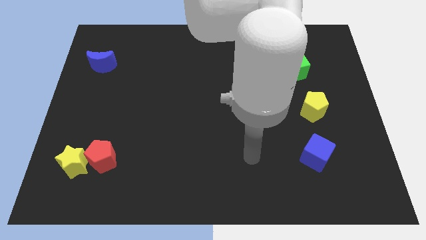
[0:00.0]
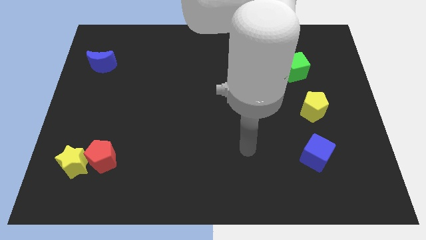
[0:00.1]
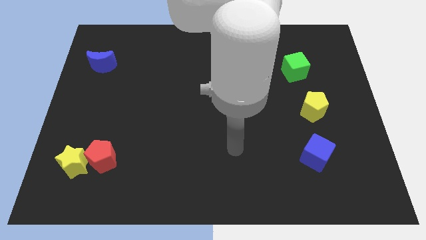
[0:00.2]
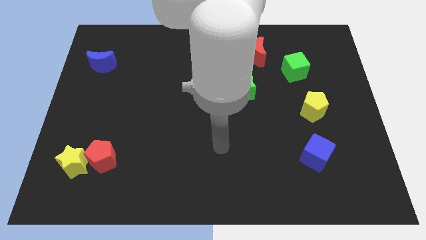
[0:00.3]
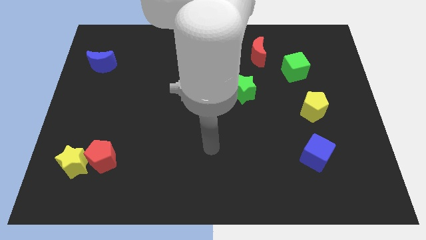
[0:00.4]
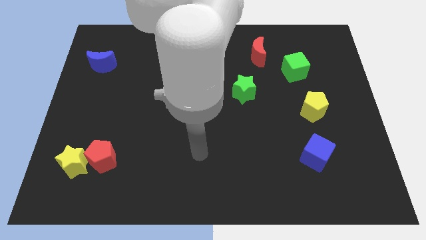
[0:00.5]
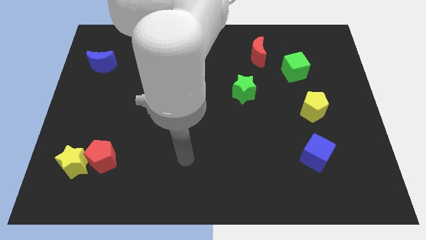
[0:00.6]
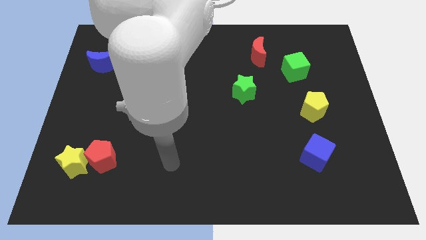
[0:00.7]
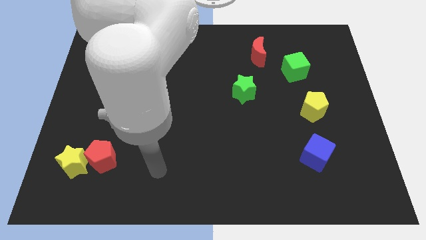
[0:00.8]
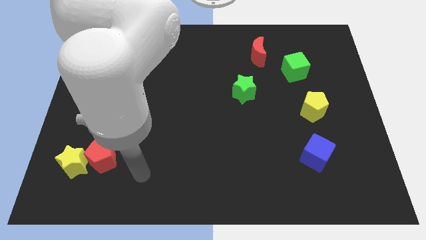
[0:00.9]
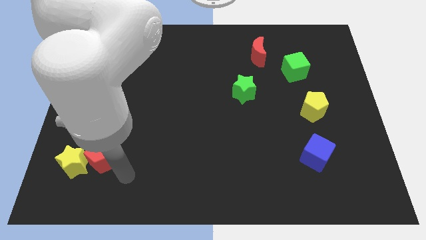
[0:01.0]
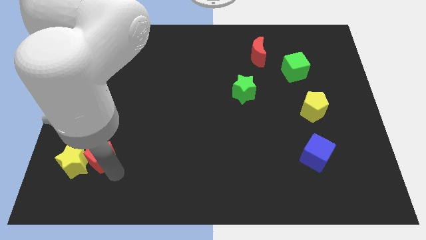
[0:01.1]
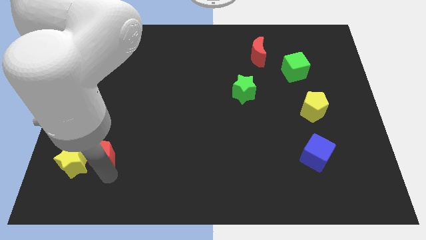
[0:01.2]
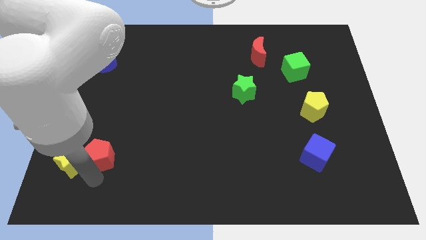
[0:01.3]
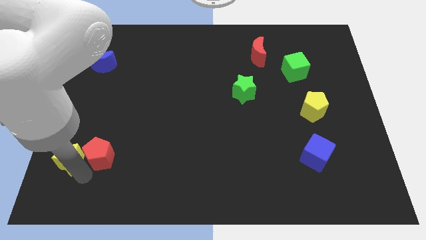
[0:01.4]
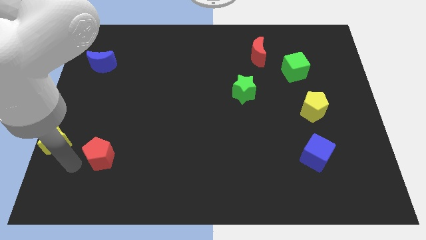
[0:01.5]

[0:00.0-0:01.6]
separate the red pentagon from the yellow star

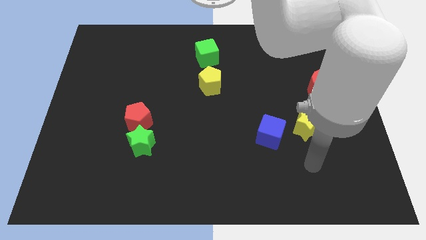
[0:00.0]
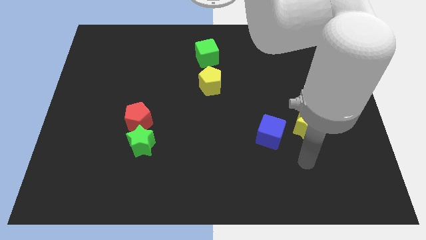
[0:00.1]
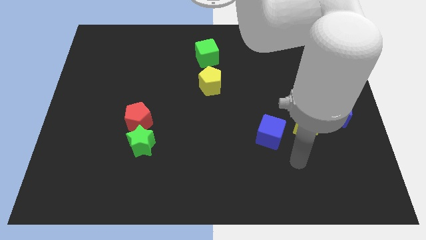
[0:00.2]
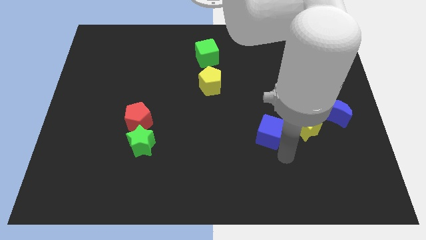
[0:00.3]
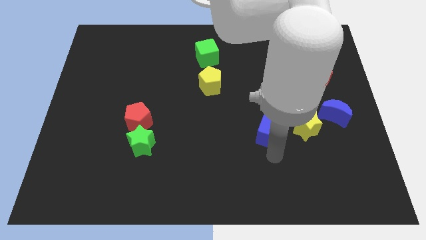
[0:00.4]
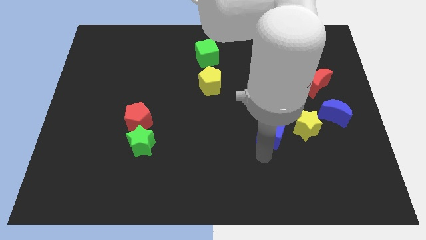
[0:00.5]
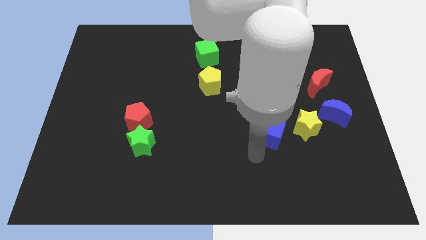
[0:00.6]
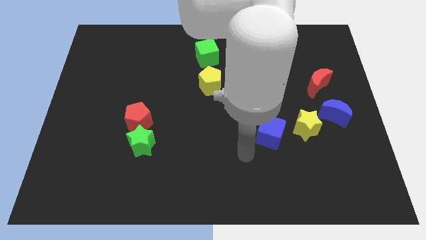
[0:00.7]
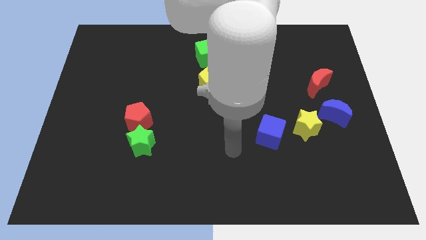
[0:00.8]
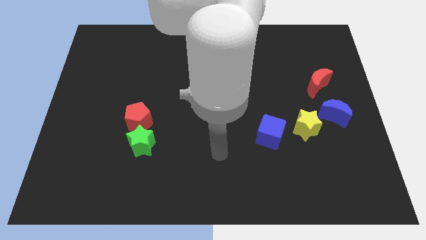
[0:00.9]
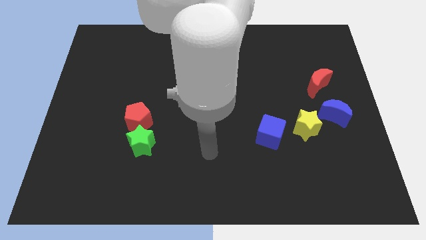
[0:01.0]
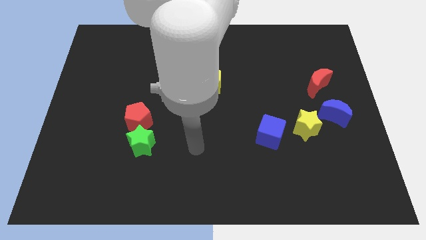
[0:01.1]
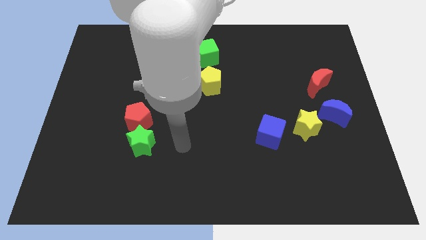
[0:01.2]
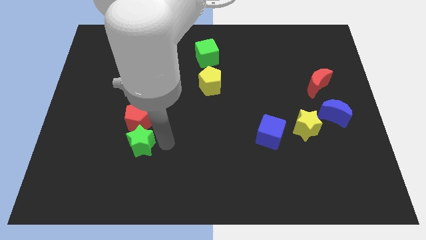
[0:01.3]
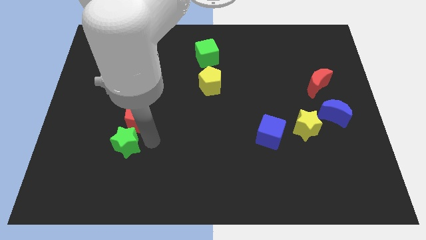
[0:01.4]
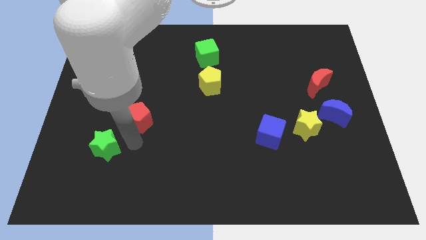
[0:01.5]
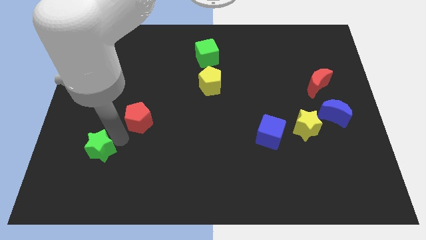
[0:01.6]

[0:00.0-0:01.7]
separate the red pentagon from the green star

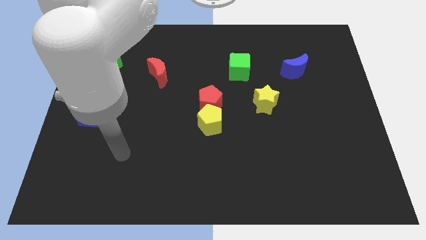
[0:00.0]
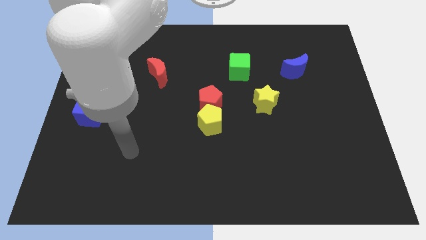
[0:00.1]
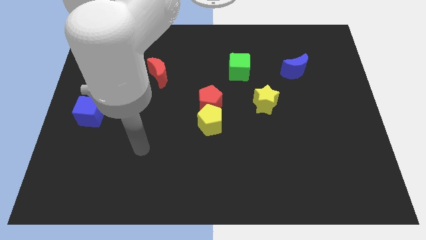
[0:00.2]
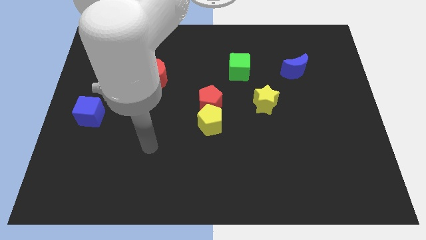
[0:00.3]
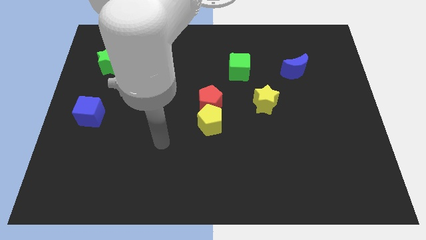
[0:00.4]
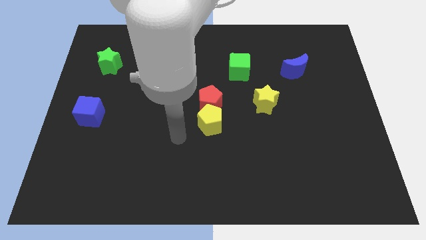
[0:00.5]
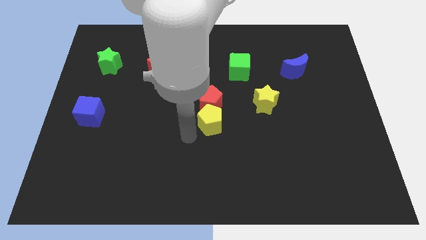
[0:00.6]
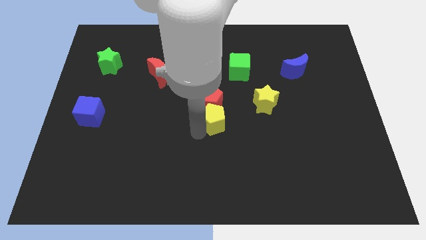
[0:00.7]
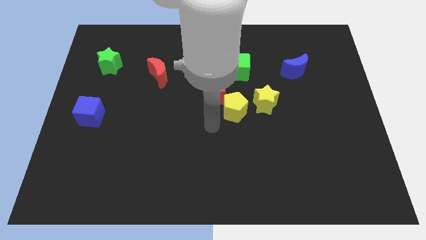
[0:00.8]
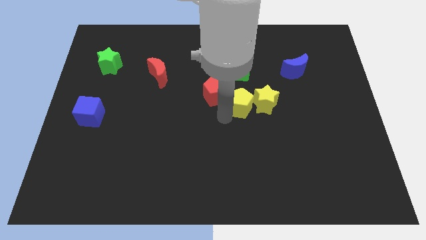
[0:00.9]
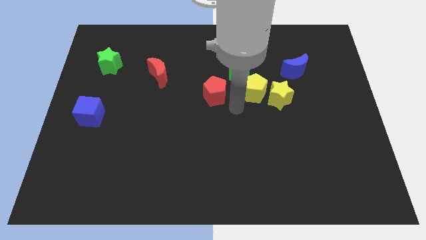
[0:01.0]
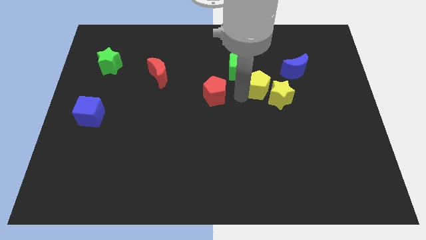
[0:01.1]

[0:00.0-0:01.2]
pull the red pentagon apart from the yellow pentagon

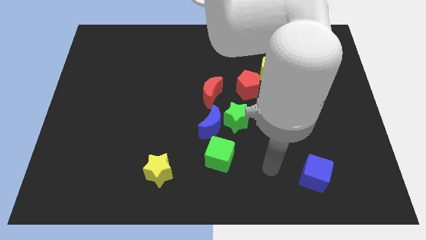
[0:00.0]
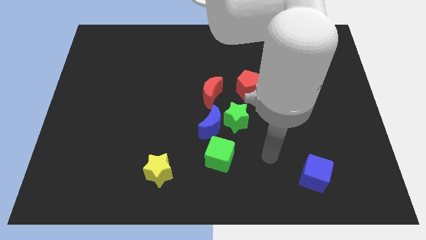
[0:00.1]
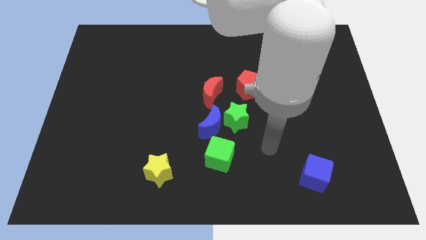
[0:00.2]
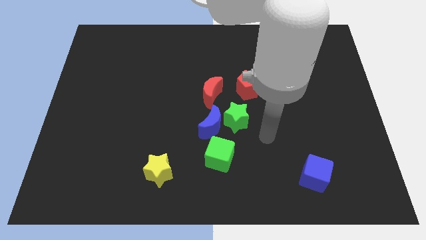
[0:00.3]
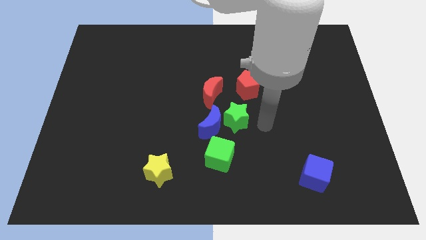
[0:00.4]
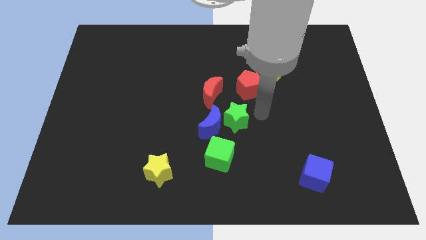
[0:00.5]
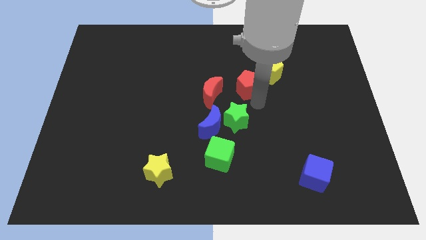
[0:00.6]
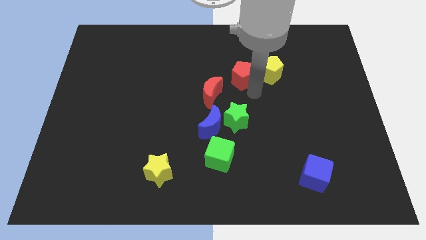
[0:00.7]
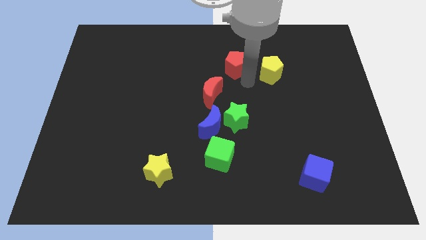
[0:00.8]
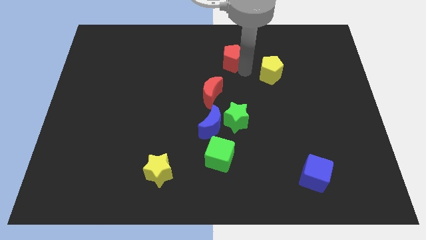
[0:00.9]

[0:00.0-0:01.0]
pull the yellow pentagon apart from the red pentagon

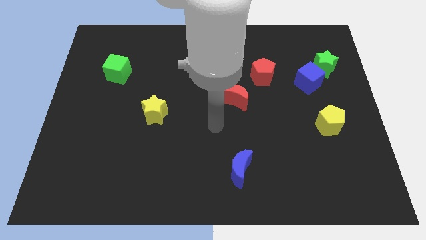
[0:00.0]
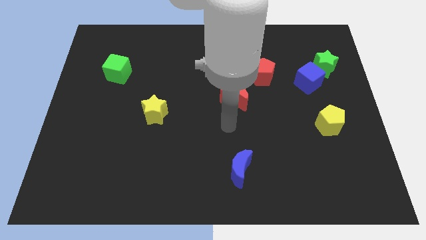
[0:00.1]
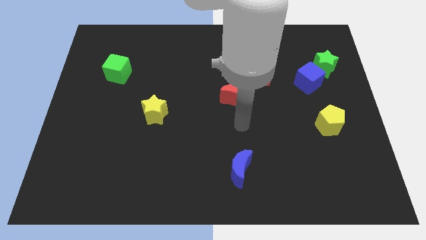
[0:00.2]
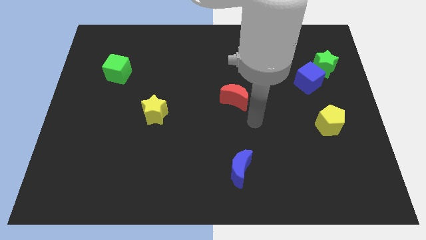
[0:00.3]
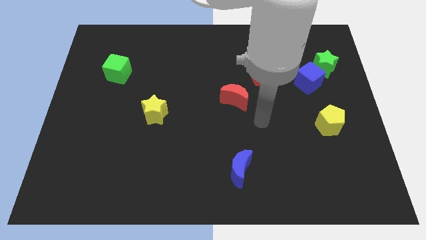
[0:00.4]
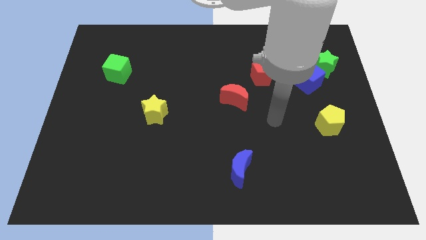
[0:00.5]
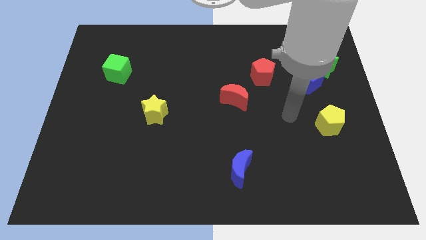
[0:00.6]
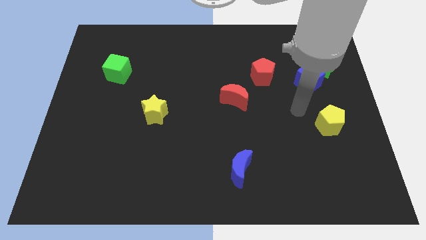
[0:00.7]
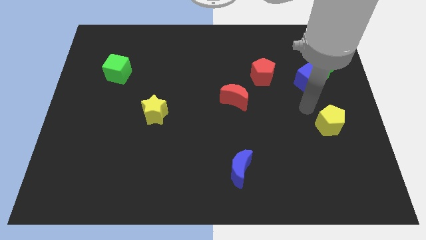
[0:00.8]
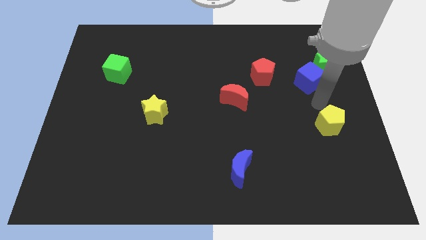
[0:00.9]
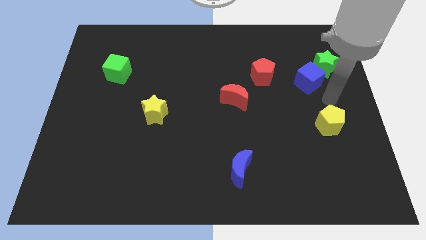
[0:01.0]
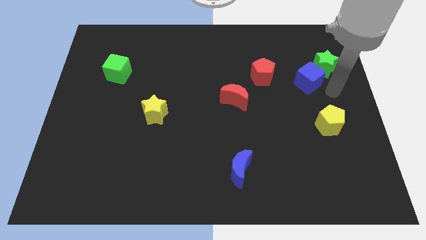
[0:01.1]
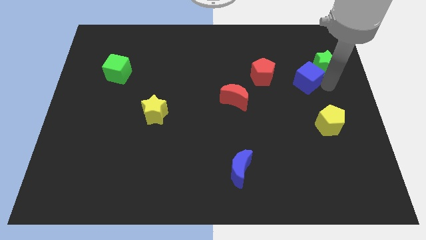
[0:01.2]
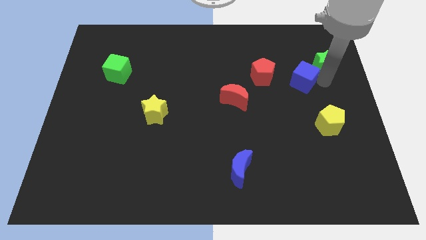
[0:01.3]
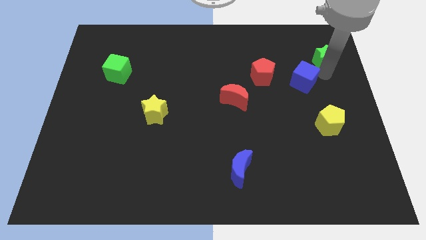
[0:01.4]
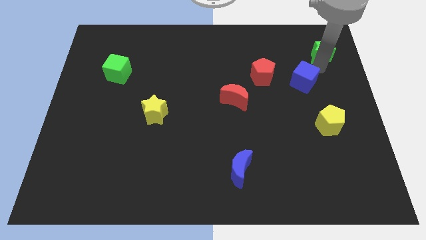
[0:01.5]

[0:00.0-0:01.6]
move the blue cube away from the green star

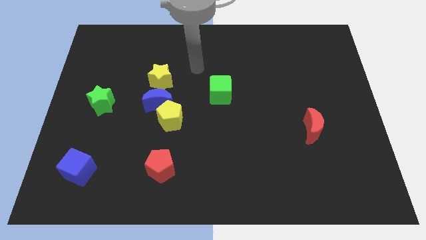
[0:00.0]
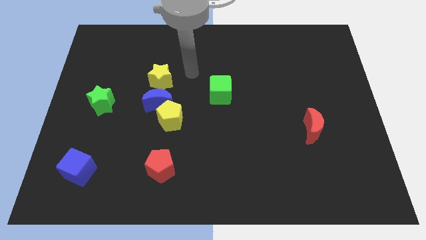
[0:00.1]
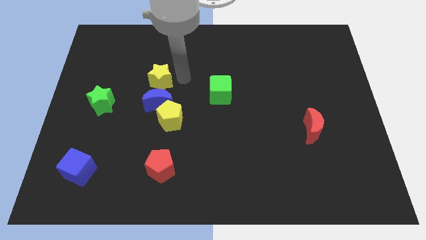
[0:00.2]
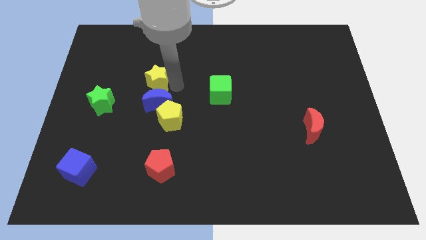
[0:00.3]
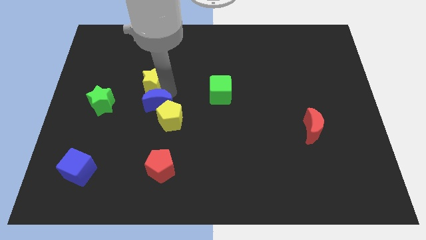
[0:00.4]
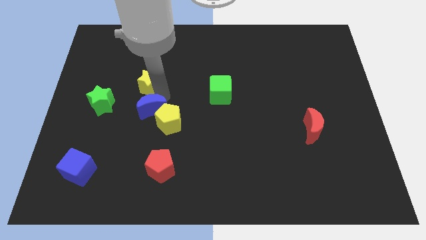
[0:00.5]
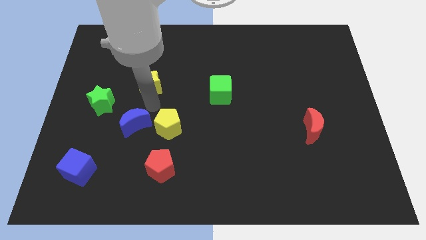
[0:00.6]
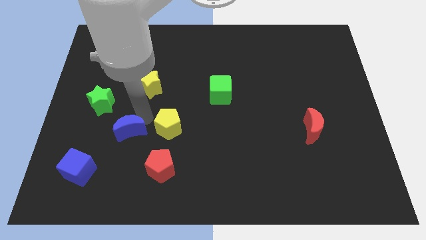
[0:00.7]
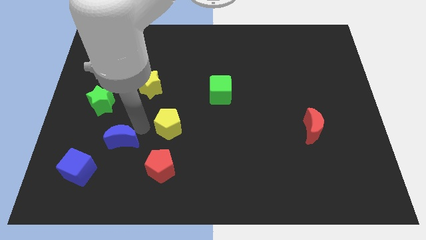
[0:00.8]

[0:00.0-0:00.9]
pull the yellow pentagon apart from the blue moon

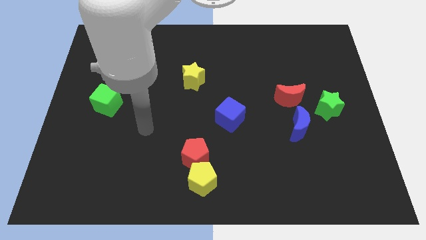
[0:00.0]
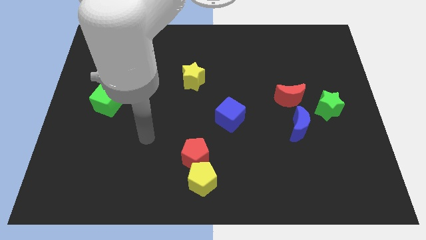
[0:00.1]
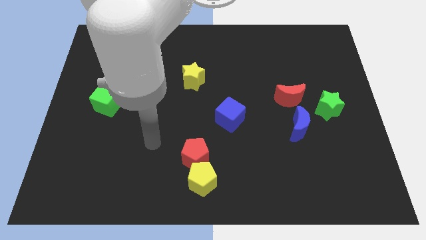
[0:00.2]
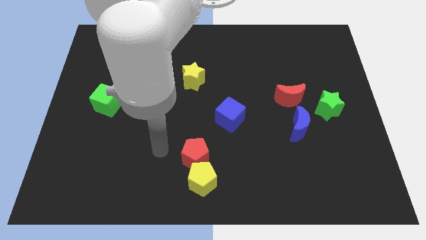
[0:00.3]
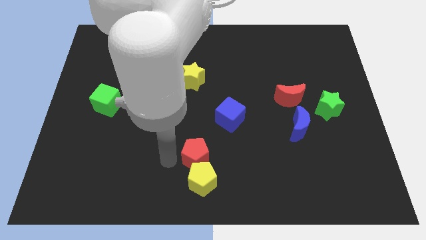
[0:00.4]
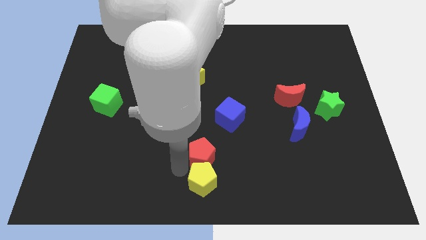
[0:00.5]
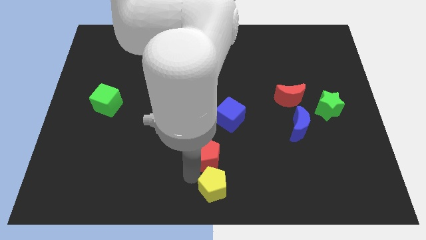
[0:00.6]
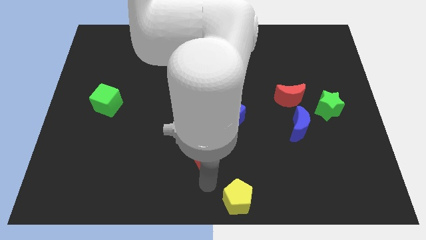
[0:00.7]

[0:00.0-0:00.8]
separate the red pentagon from the yellow pentagon

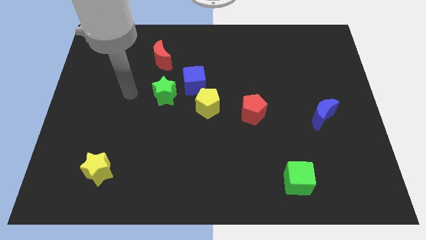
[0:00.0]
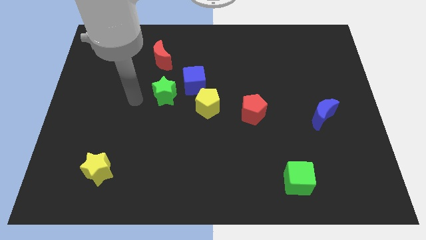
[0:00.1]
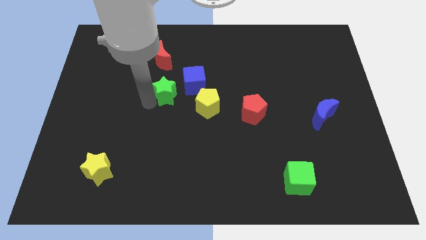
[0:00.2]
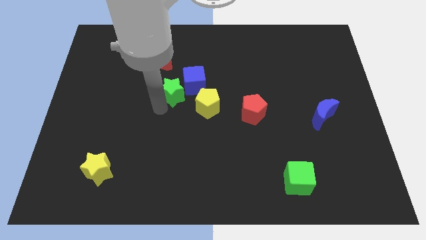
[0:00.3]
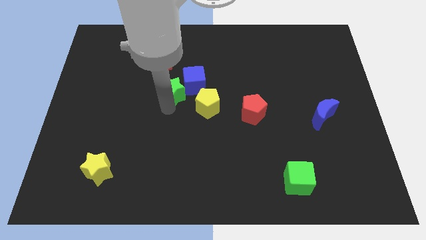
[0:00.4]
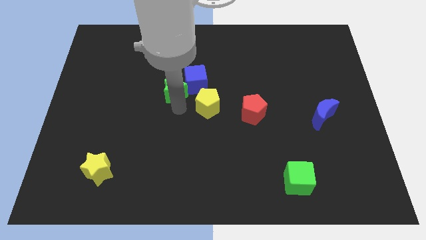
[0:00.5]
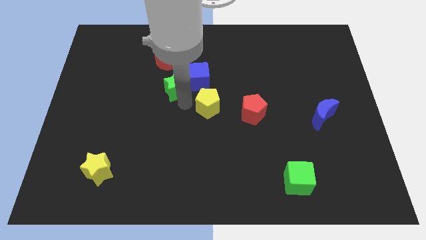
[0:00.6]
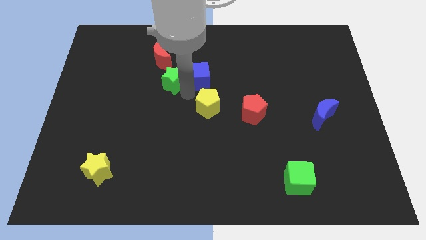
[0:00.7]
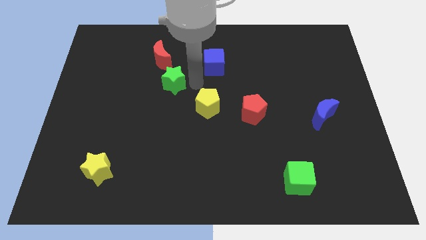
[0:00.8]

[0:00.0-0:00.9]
move the green star away from the blue cube
